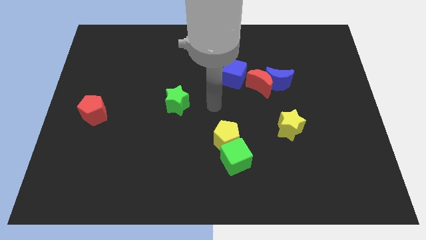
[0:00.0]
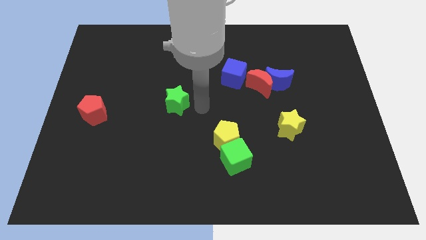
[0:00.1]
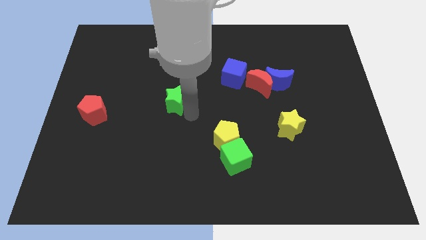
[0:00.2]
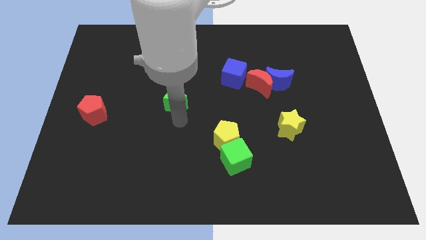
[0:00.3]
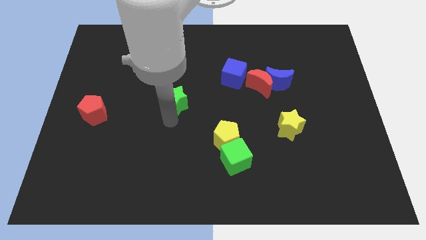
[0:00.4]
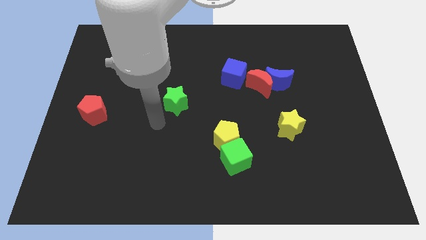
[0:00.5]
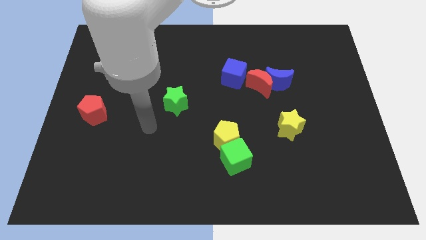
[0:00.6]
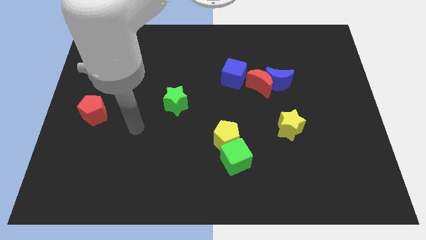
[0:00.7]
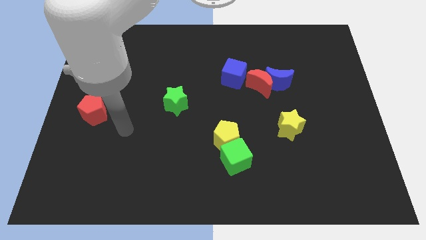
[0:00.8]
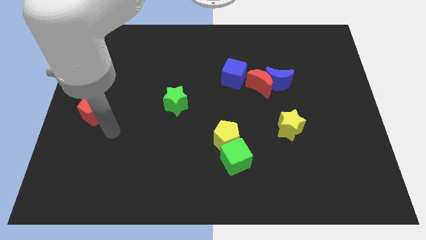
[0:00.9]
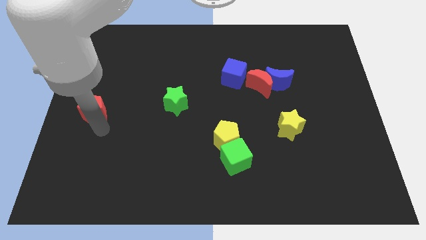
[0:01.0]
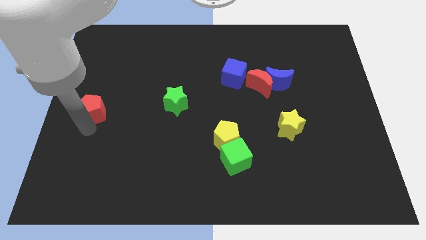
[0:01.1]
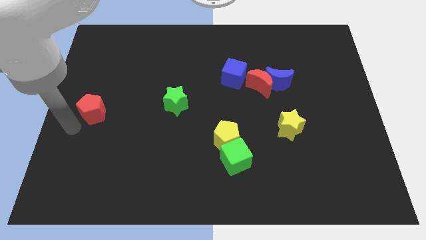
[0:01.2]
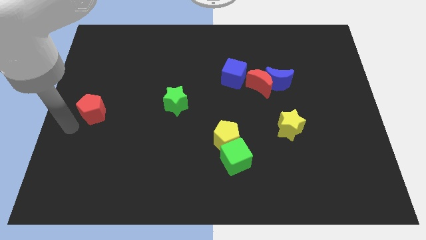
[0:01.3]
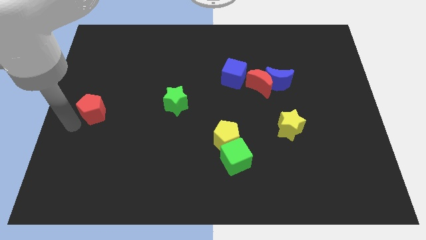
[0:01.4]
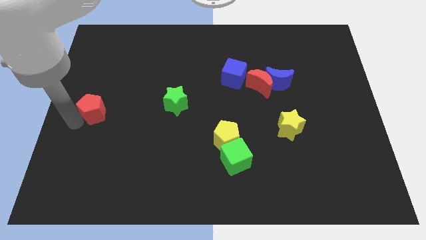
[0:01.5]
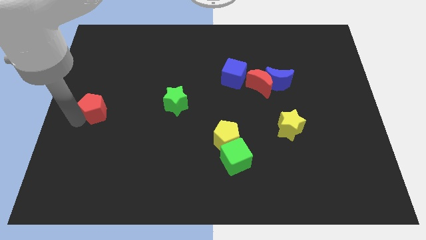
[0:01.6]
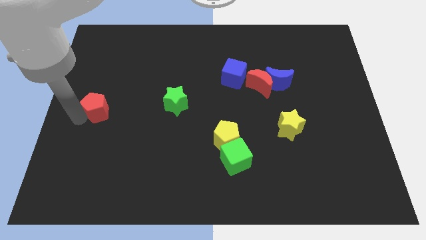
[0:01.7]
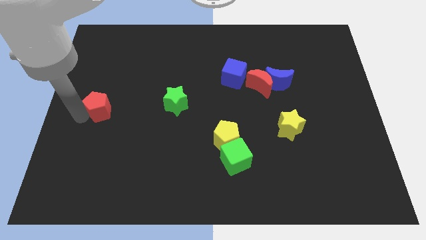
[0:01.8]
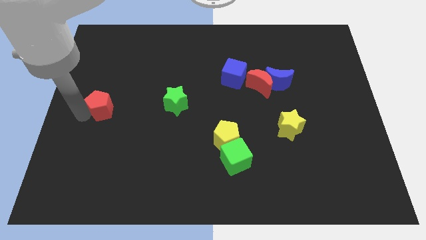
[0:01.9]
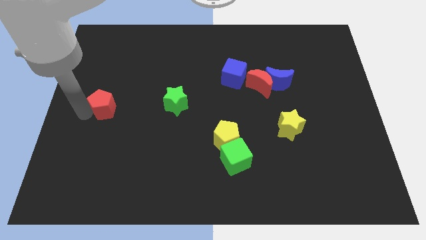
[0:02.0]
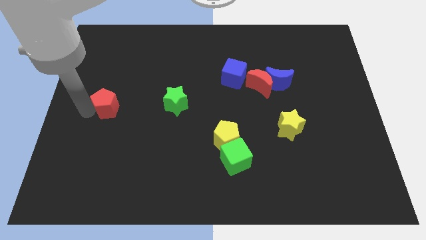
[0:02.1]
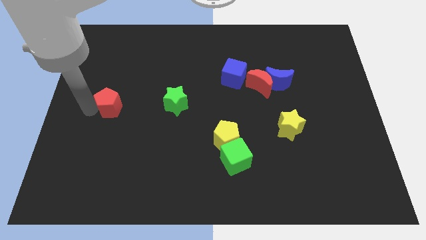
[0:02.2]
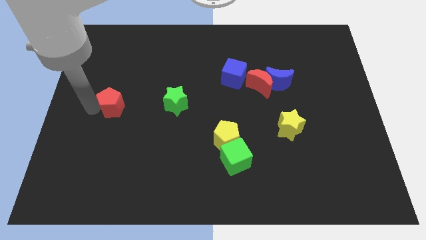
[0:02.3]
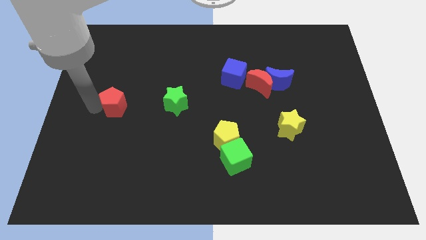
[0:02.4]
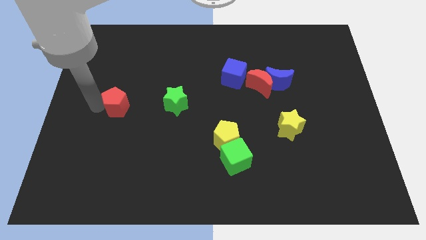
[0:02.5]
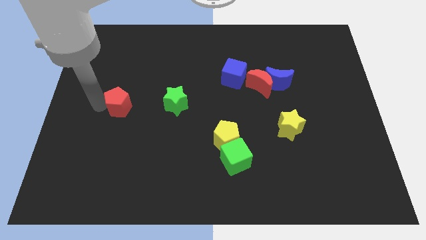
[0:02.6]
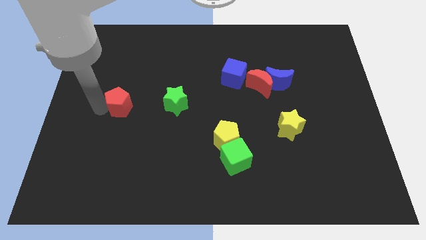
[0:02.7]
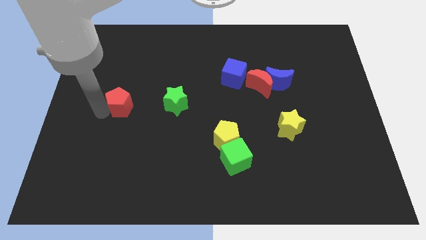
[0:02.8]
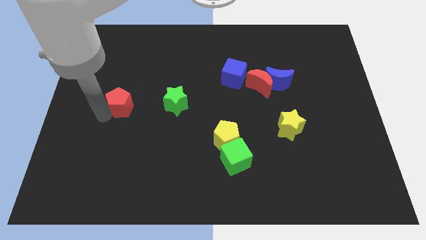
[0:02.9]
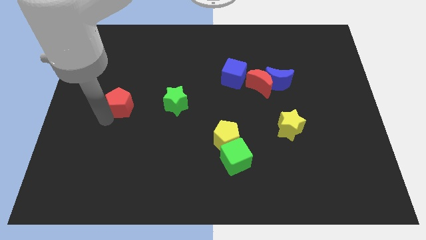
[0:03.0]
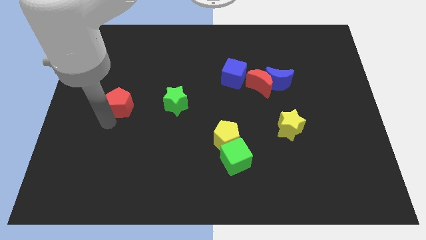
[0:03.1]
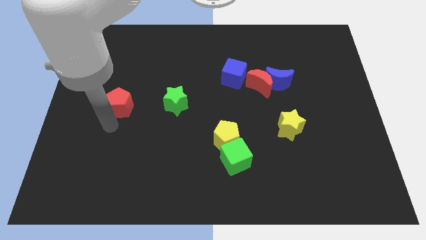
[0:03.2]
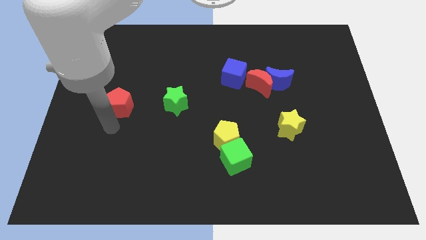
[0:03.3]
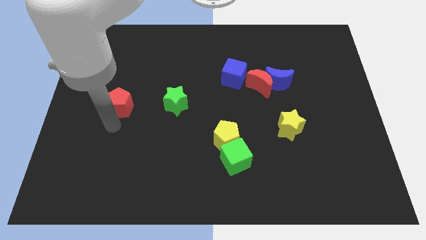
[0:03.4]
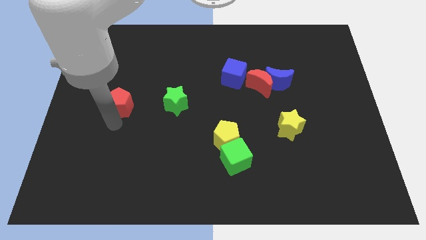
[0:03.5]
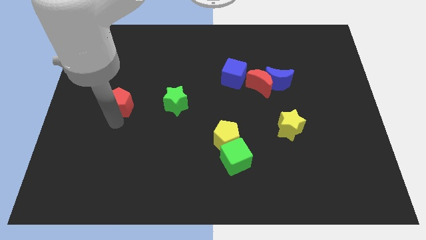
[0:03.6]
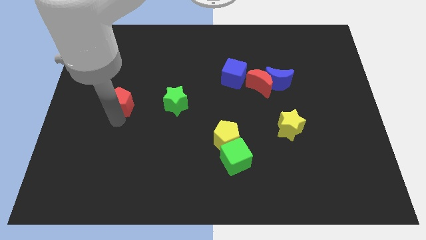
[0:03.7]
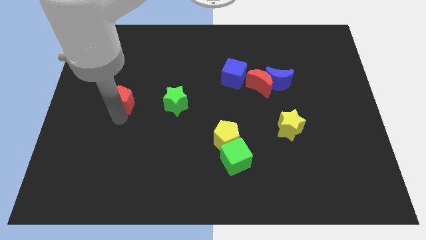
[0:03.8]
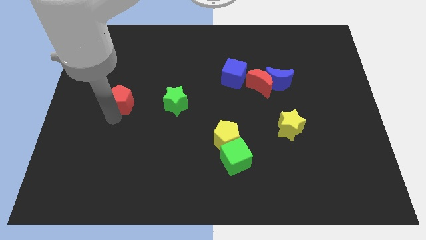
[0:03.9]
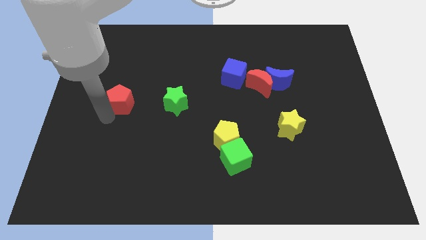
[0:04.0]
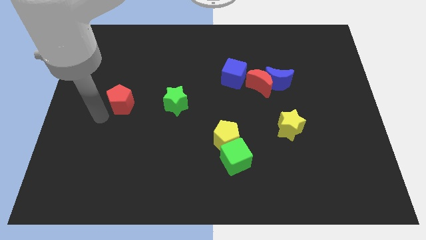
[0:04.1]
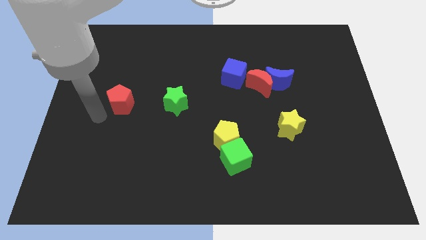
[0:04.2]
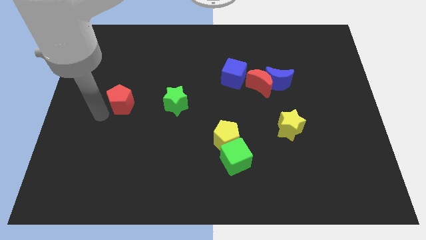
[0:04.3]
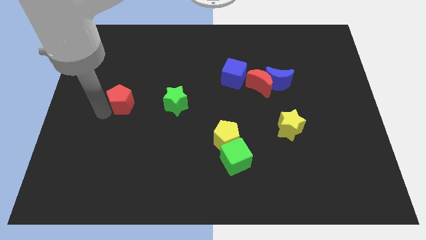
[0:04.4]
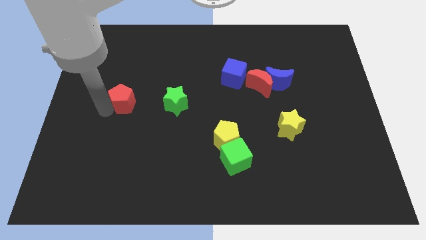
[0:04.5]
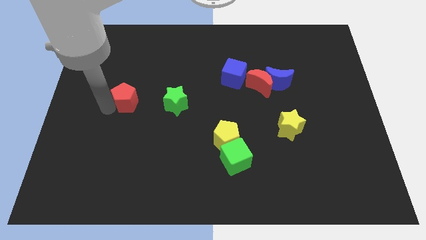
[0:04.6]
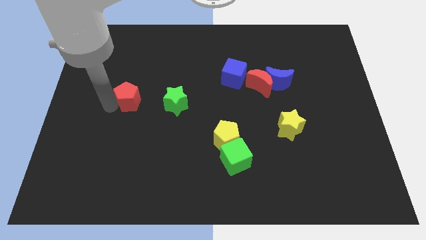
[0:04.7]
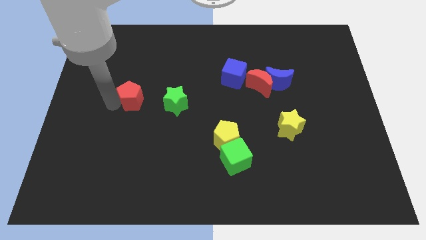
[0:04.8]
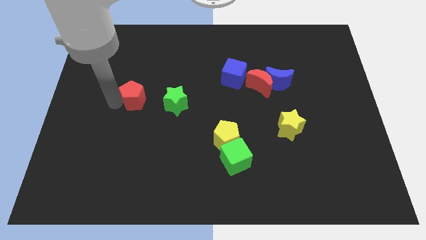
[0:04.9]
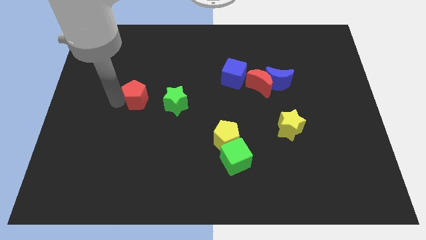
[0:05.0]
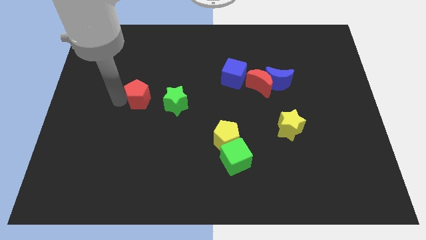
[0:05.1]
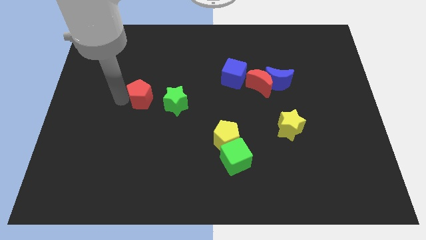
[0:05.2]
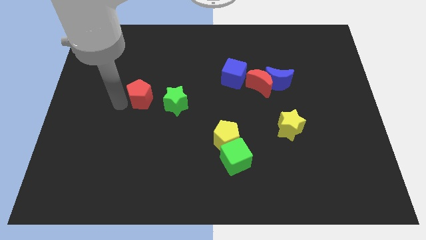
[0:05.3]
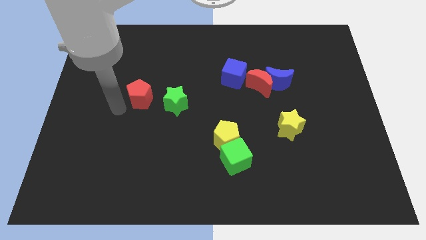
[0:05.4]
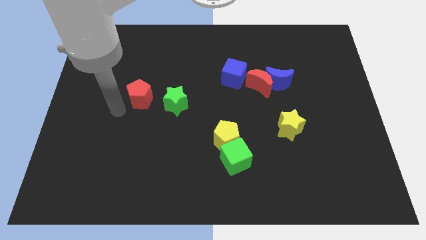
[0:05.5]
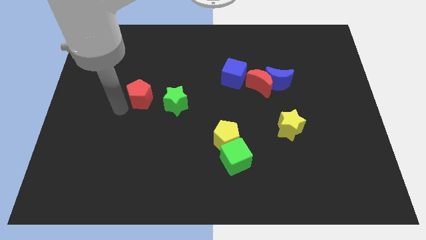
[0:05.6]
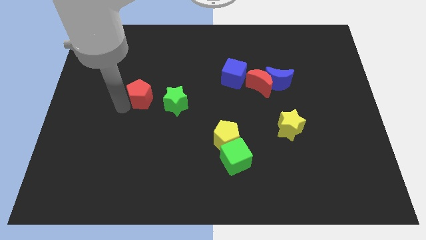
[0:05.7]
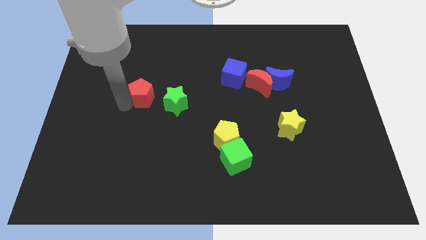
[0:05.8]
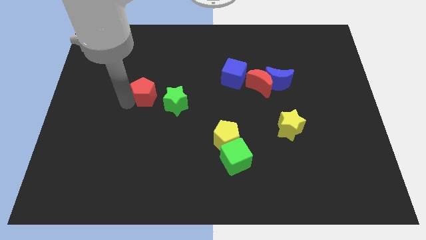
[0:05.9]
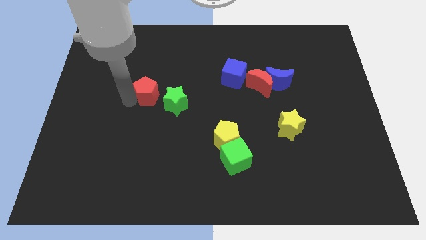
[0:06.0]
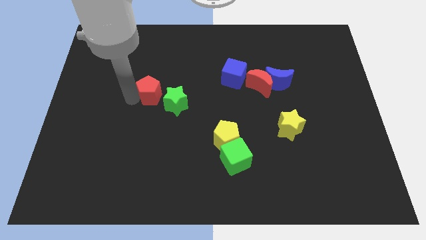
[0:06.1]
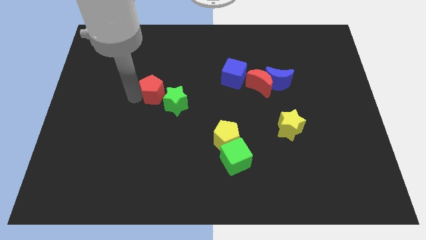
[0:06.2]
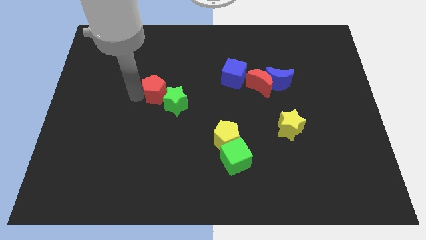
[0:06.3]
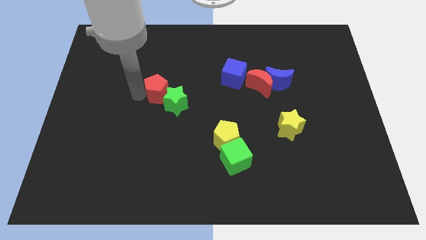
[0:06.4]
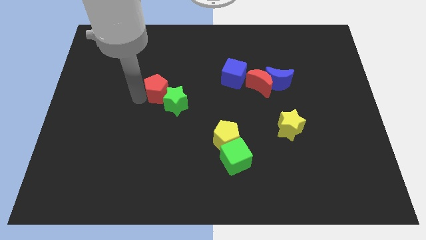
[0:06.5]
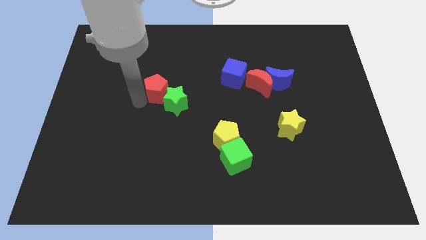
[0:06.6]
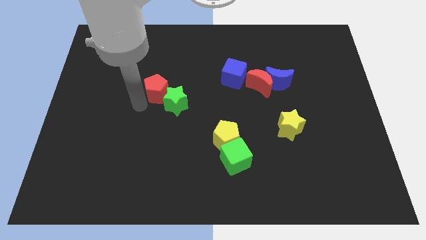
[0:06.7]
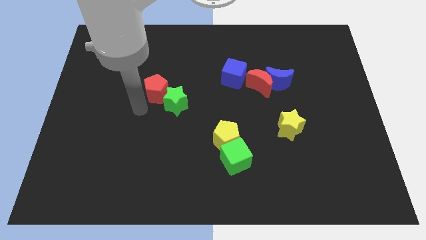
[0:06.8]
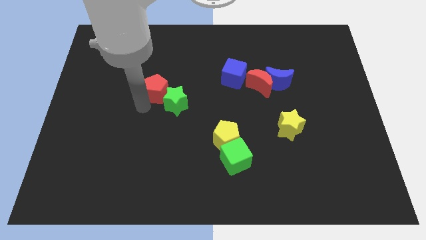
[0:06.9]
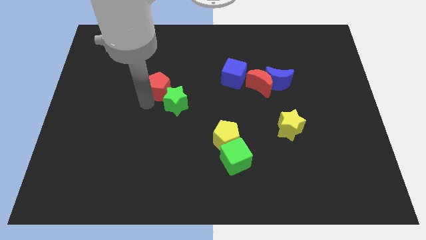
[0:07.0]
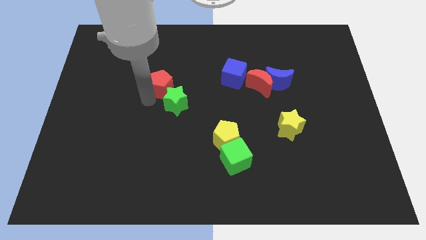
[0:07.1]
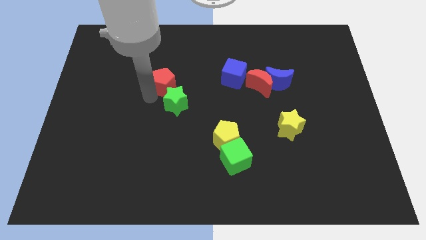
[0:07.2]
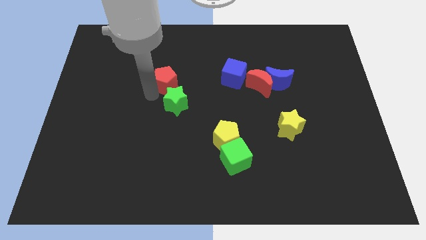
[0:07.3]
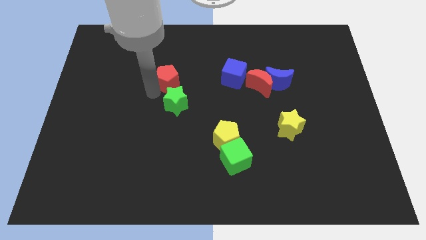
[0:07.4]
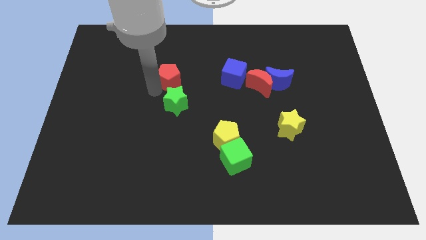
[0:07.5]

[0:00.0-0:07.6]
move the red pentagon to the left side of the blue cube

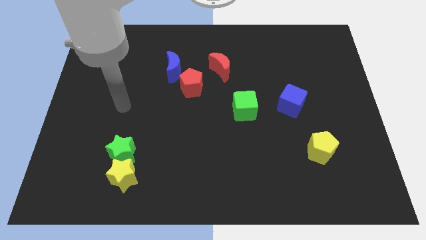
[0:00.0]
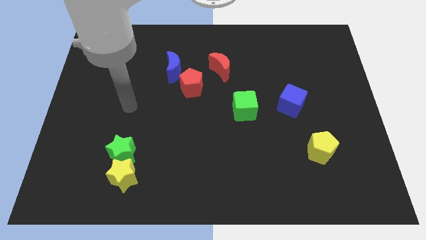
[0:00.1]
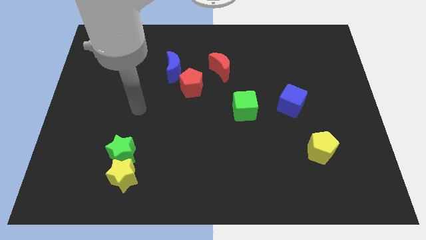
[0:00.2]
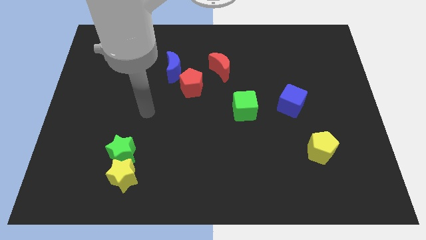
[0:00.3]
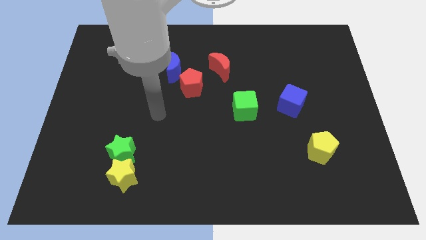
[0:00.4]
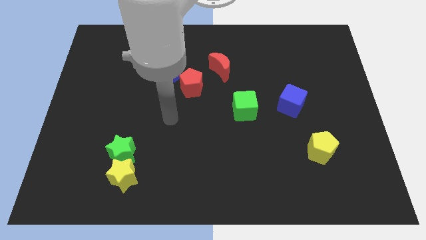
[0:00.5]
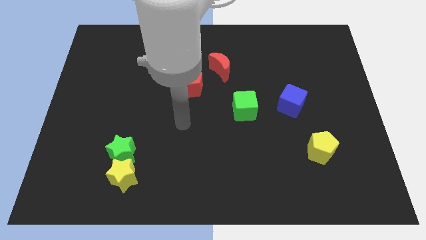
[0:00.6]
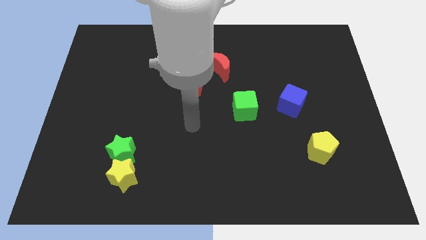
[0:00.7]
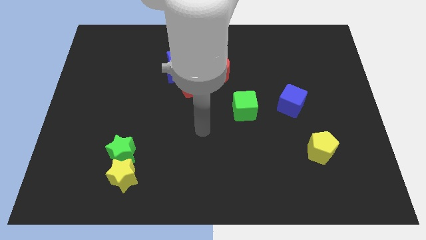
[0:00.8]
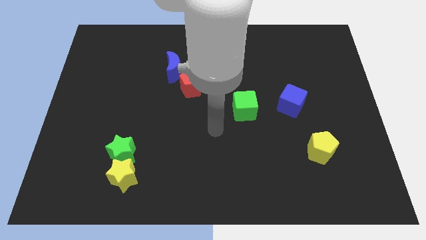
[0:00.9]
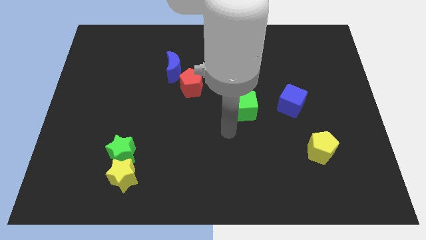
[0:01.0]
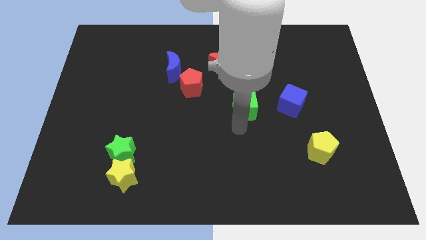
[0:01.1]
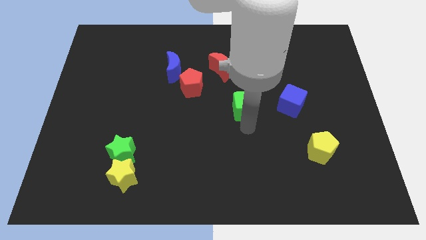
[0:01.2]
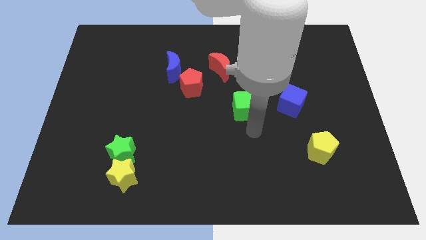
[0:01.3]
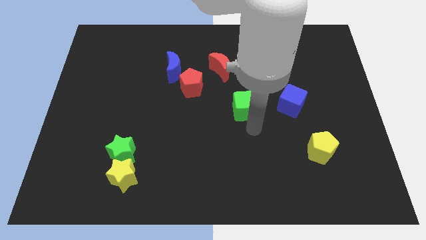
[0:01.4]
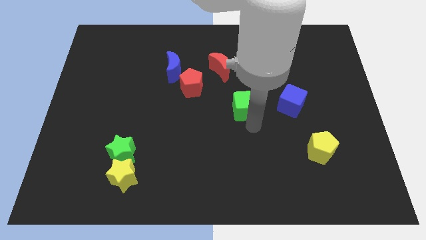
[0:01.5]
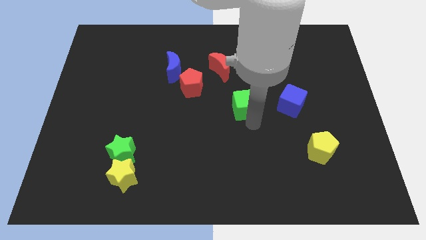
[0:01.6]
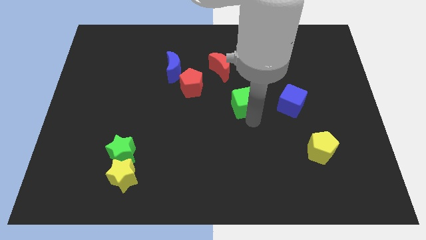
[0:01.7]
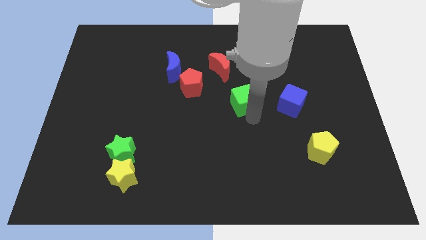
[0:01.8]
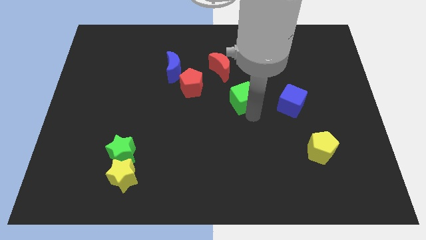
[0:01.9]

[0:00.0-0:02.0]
slide the green cube to the right of the red pentagon
